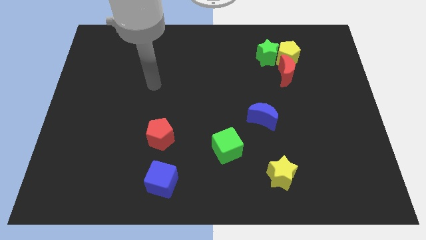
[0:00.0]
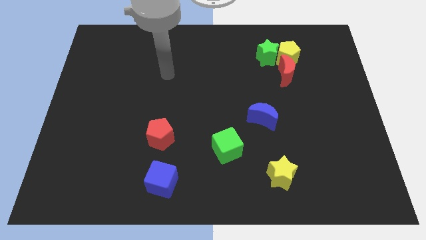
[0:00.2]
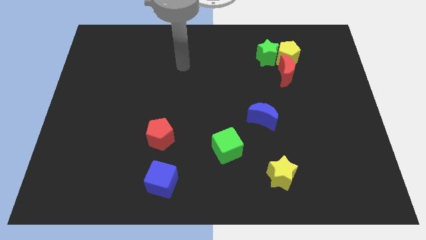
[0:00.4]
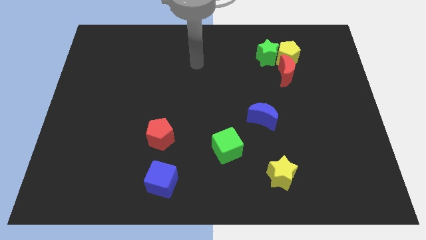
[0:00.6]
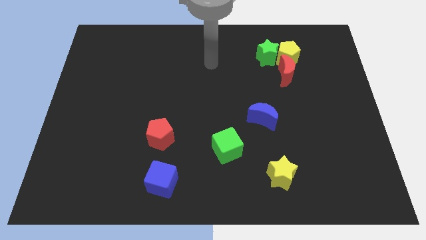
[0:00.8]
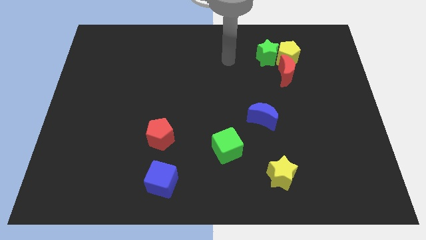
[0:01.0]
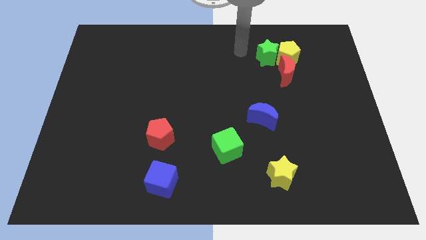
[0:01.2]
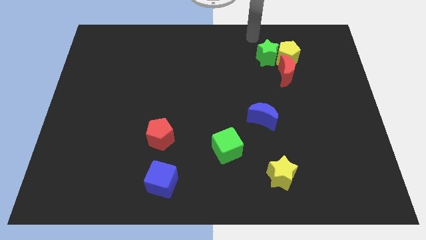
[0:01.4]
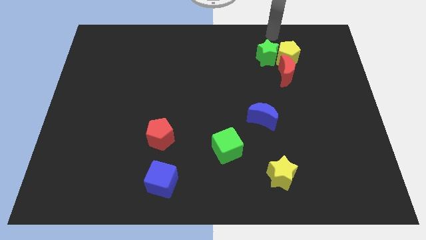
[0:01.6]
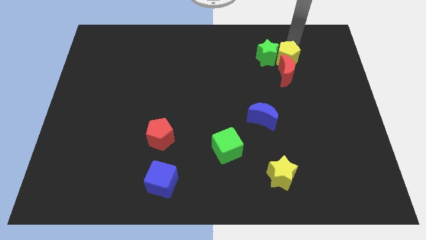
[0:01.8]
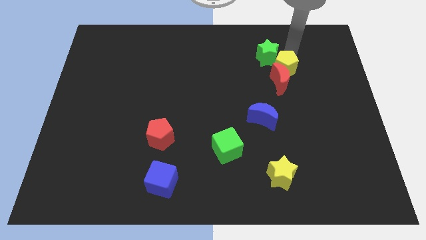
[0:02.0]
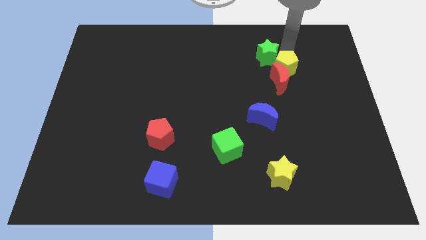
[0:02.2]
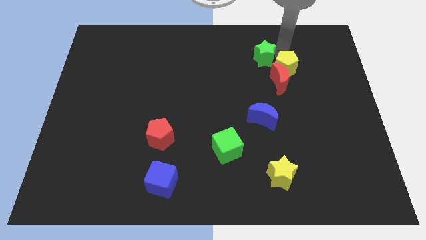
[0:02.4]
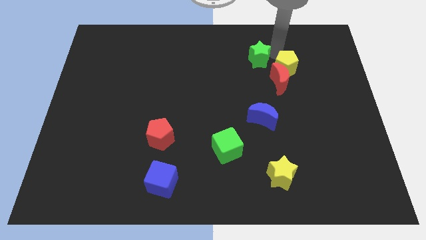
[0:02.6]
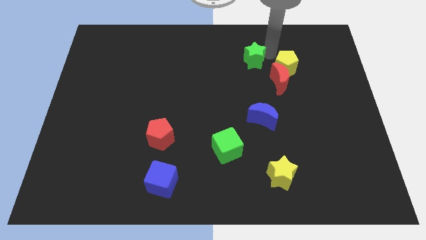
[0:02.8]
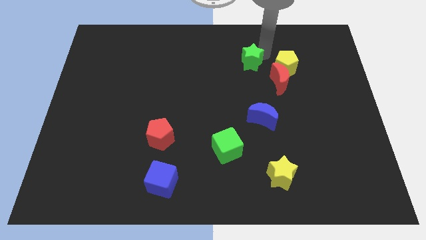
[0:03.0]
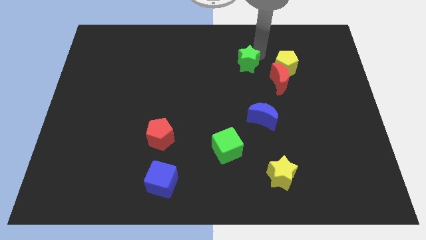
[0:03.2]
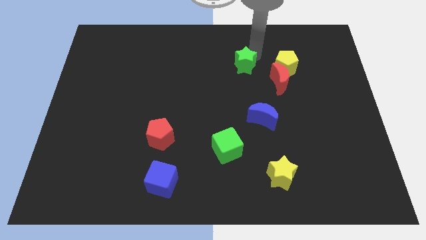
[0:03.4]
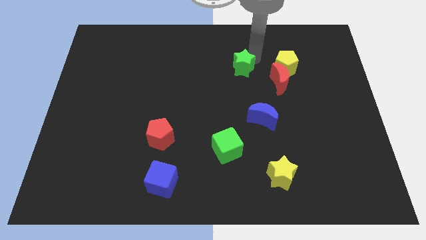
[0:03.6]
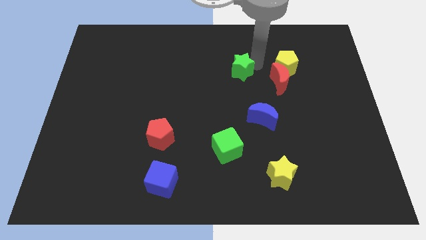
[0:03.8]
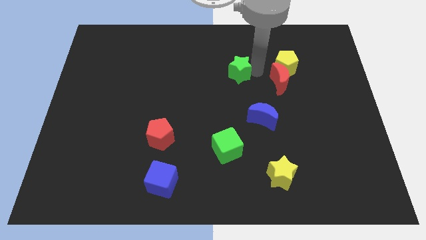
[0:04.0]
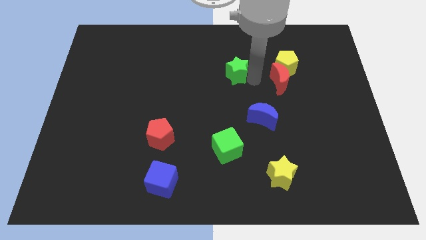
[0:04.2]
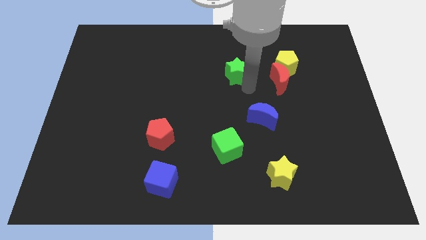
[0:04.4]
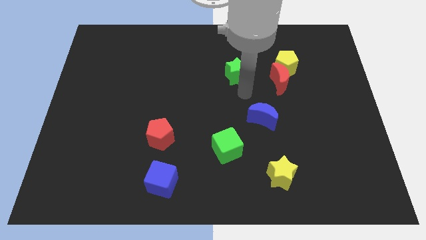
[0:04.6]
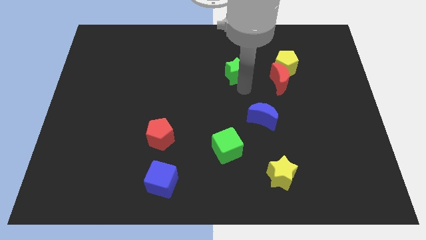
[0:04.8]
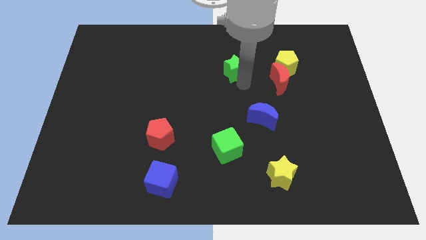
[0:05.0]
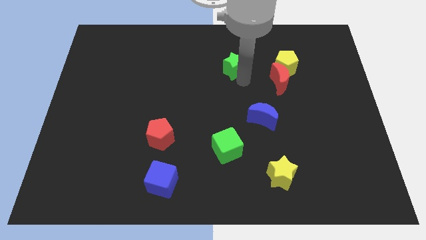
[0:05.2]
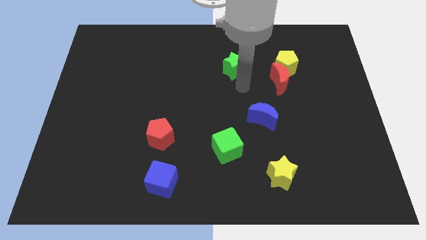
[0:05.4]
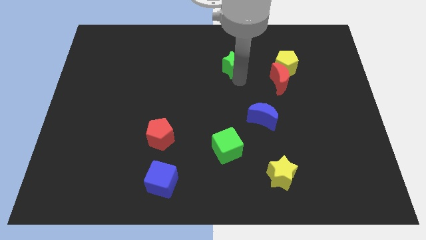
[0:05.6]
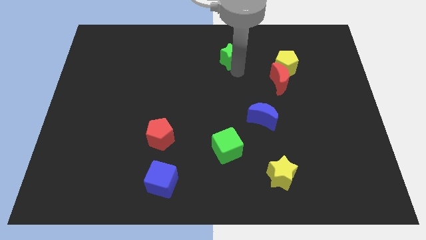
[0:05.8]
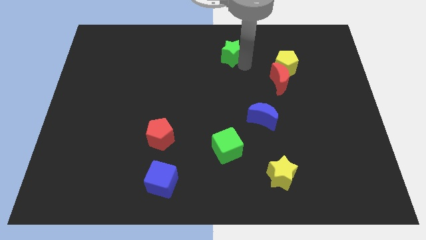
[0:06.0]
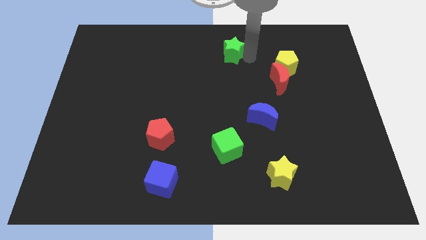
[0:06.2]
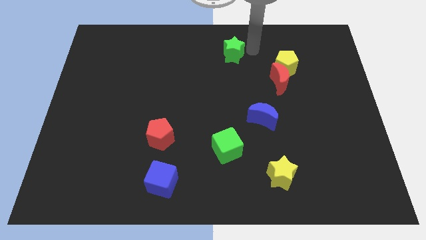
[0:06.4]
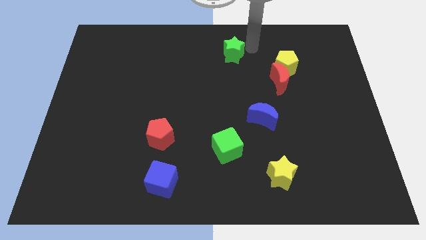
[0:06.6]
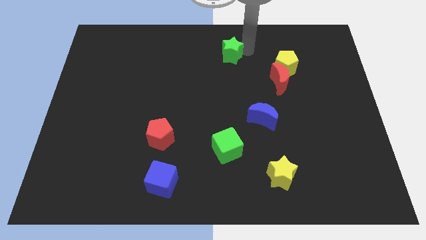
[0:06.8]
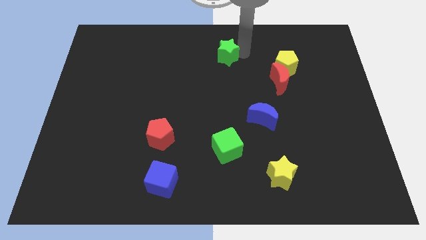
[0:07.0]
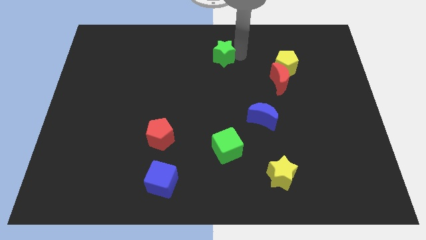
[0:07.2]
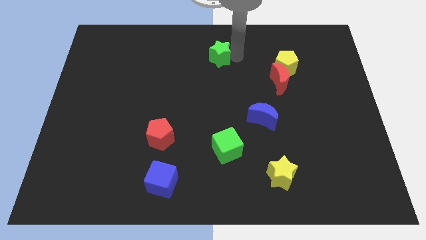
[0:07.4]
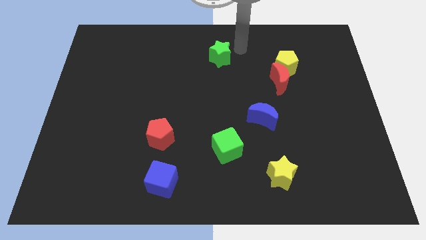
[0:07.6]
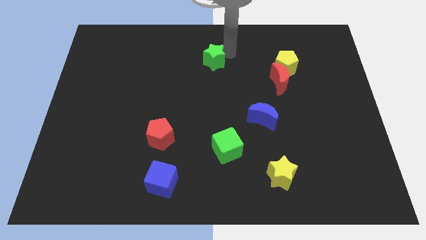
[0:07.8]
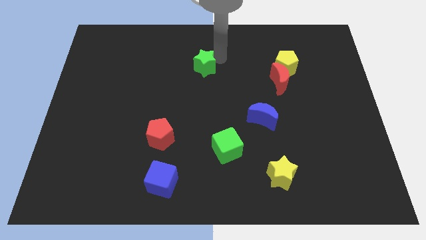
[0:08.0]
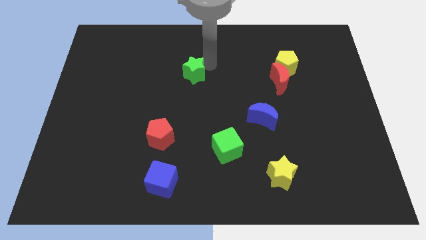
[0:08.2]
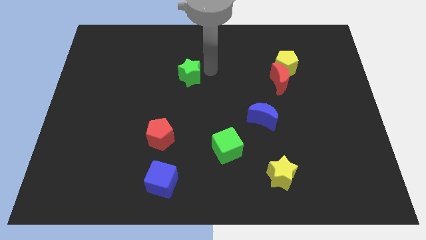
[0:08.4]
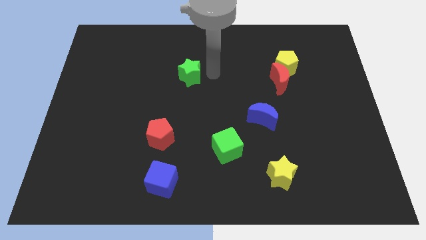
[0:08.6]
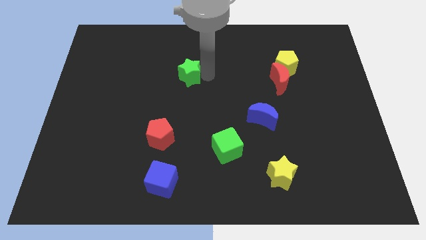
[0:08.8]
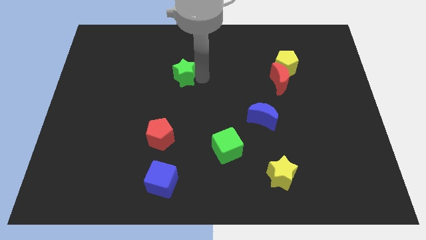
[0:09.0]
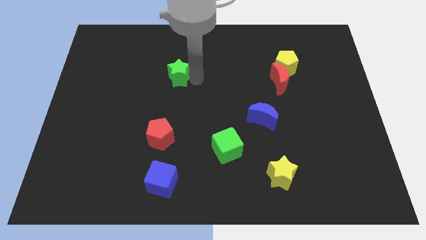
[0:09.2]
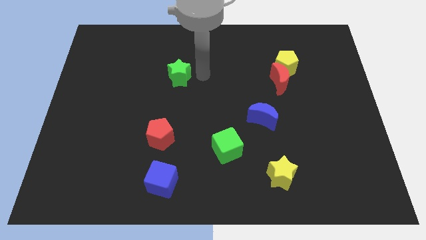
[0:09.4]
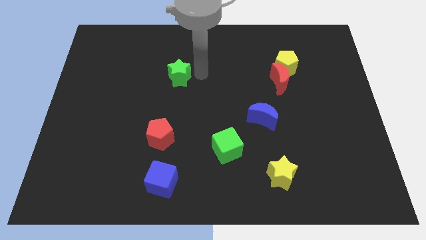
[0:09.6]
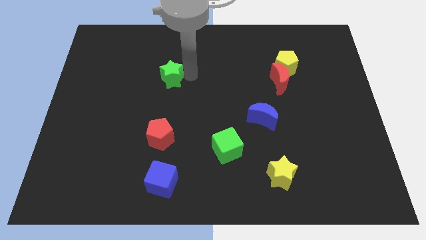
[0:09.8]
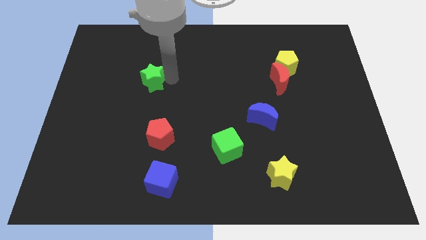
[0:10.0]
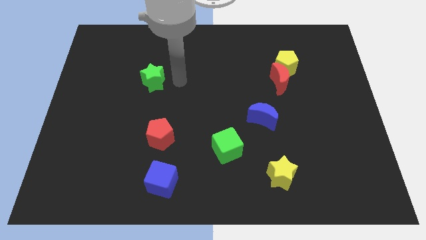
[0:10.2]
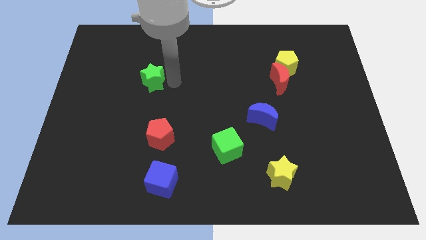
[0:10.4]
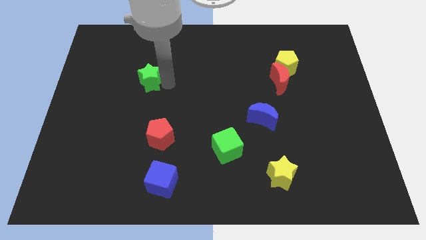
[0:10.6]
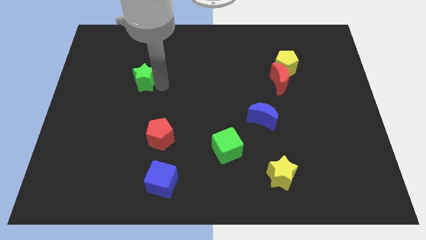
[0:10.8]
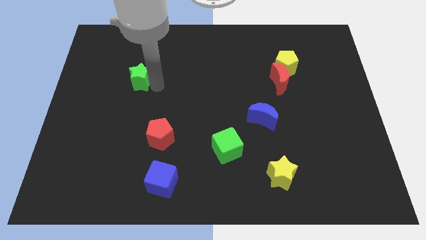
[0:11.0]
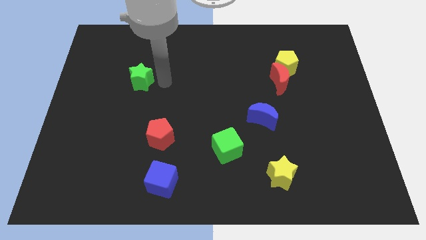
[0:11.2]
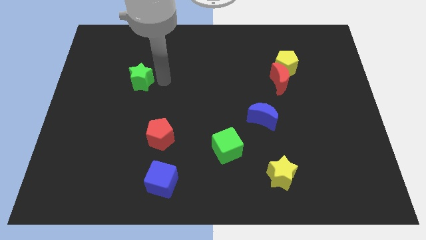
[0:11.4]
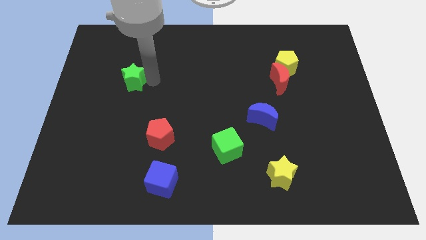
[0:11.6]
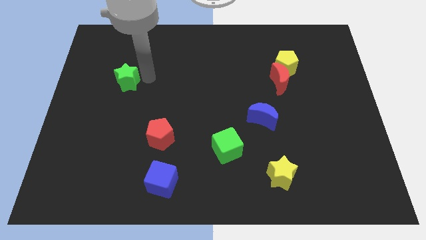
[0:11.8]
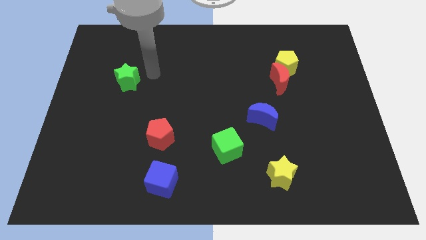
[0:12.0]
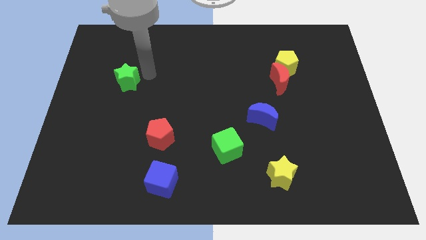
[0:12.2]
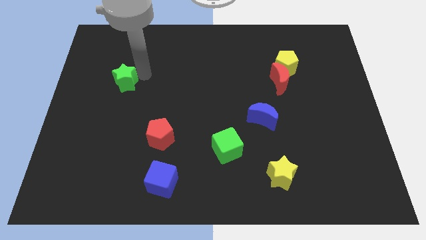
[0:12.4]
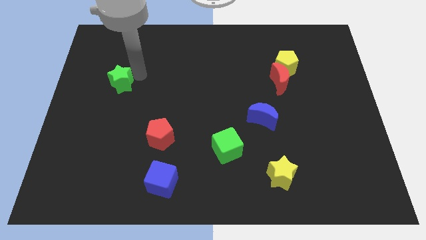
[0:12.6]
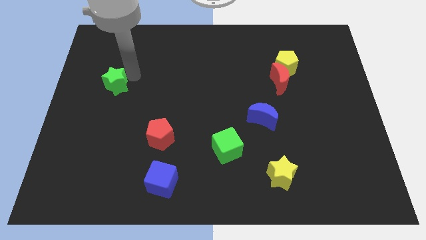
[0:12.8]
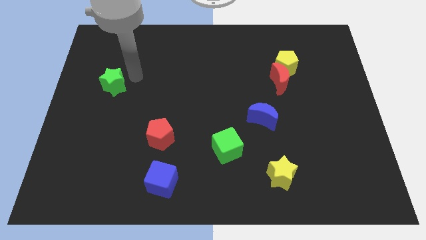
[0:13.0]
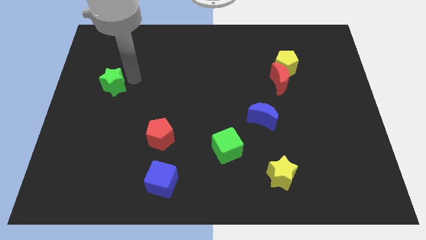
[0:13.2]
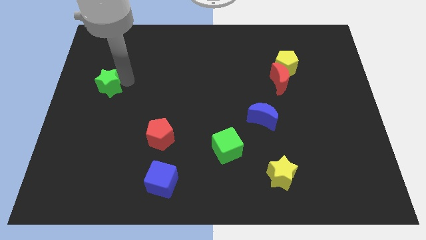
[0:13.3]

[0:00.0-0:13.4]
push the green star to the left side
